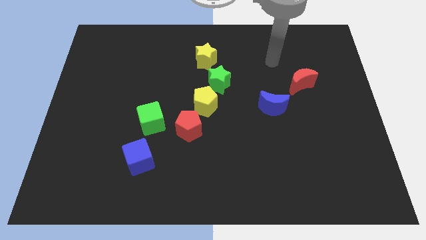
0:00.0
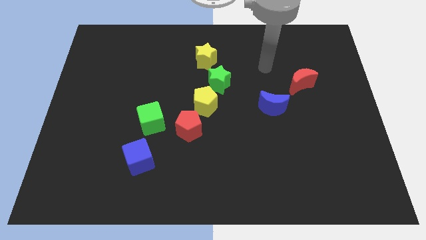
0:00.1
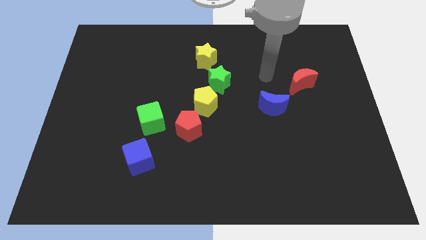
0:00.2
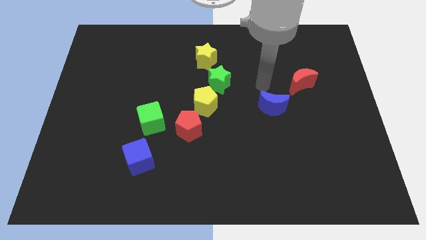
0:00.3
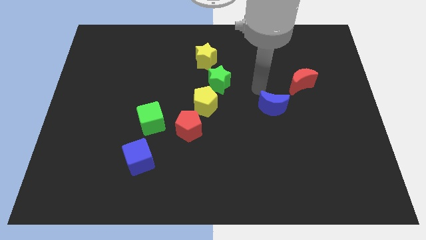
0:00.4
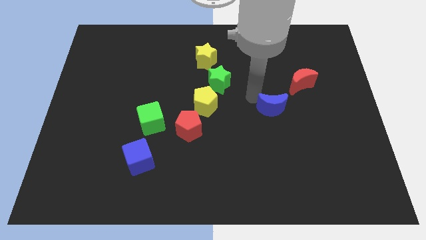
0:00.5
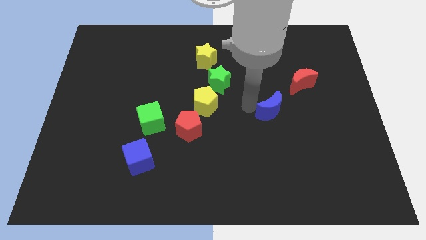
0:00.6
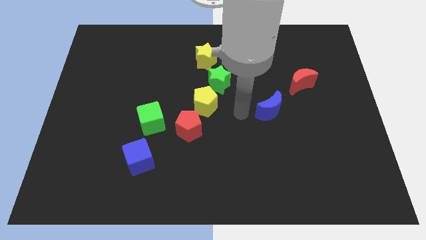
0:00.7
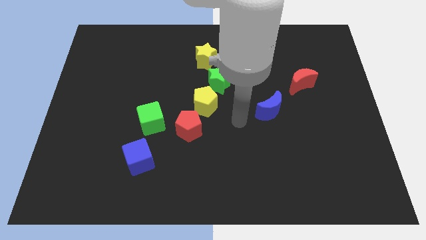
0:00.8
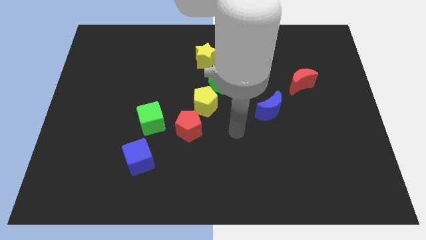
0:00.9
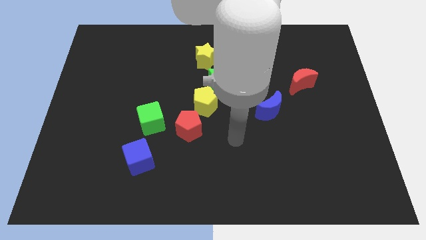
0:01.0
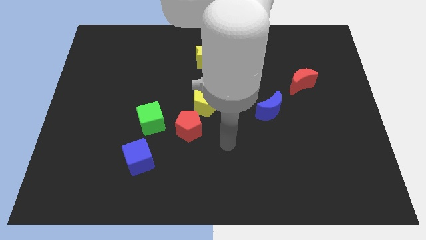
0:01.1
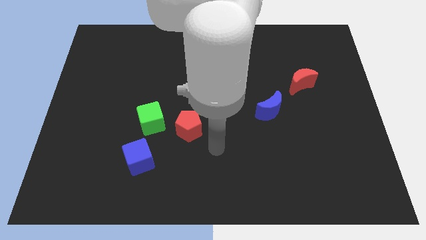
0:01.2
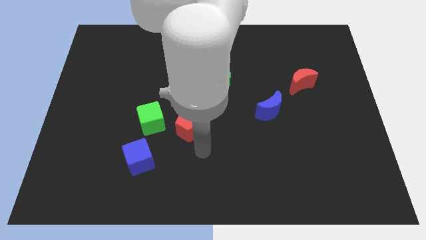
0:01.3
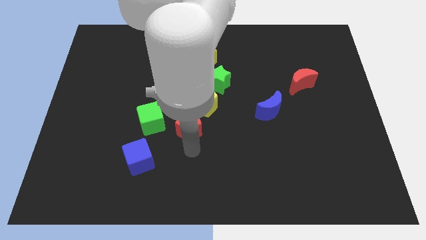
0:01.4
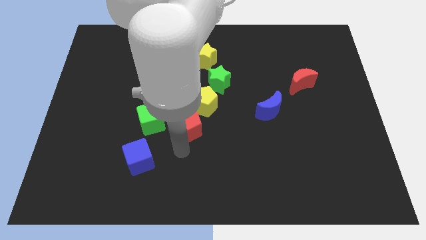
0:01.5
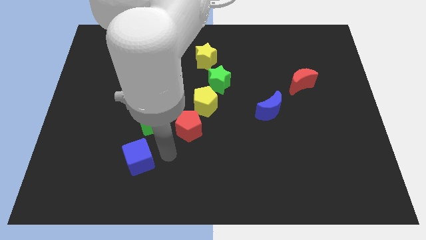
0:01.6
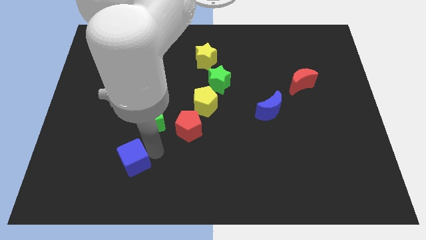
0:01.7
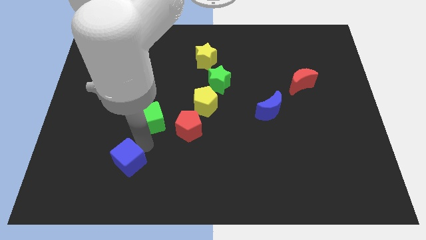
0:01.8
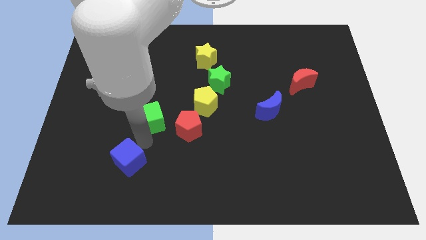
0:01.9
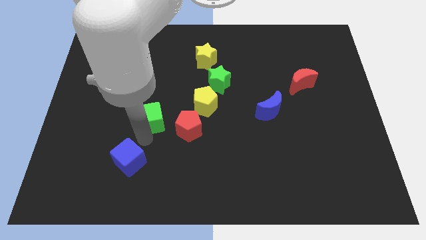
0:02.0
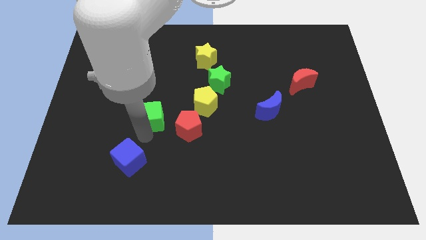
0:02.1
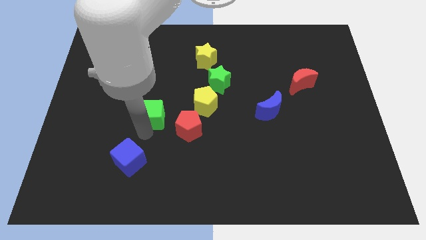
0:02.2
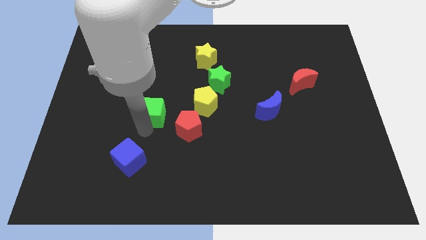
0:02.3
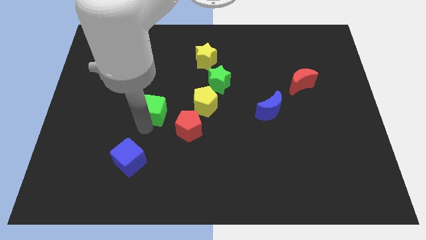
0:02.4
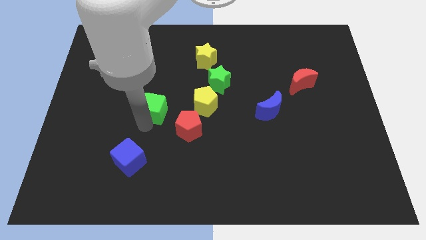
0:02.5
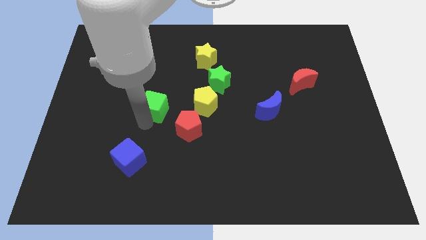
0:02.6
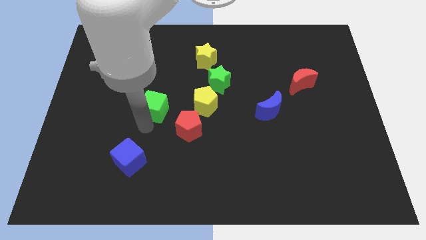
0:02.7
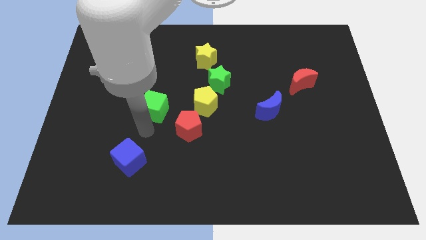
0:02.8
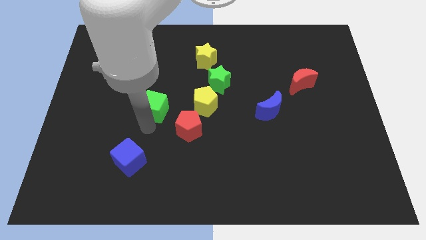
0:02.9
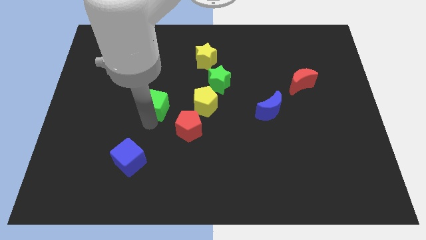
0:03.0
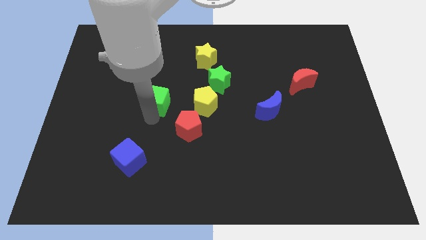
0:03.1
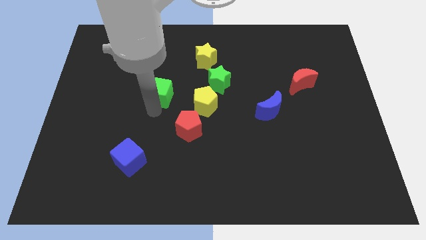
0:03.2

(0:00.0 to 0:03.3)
push the green cube upwards a little

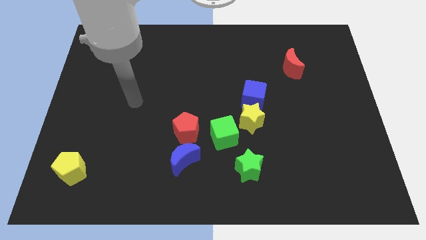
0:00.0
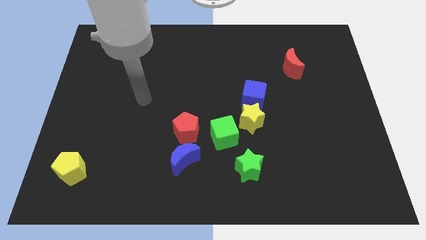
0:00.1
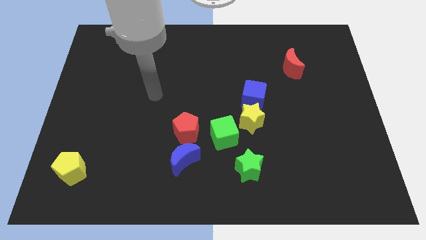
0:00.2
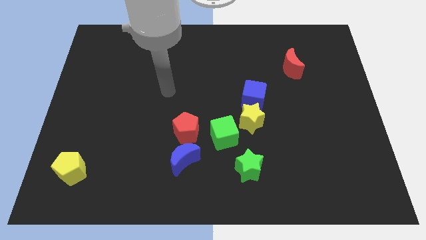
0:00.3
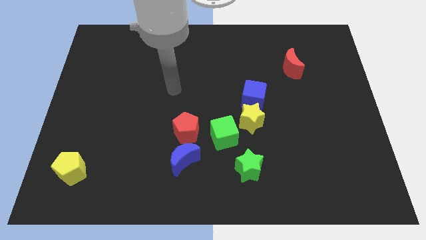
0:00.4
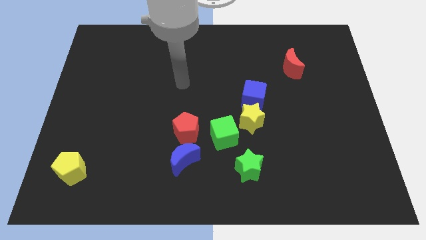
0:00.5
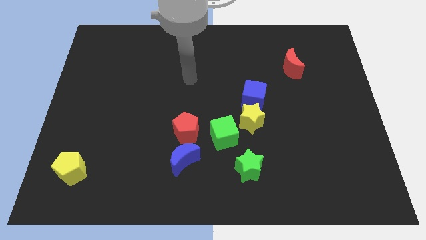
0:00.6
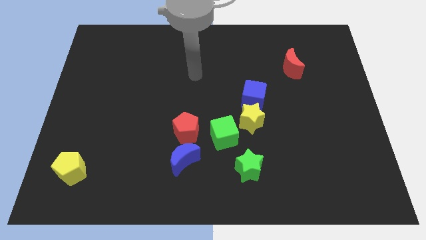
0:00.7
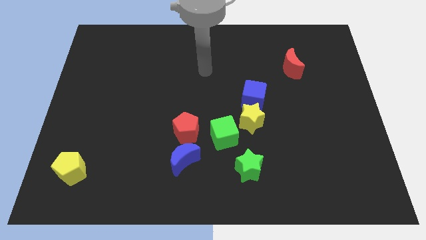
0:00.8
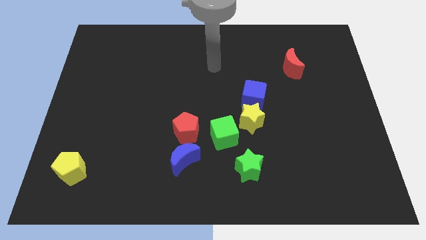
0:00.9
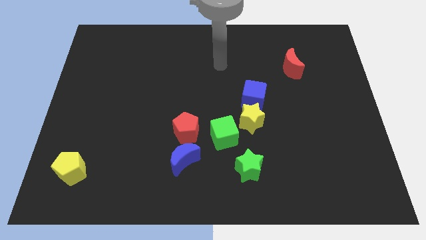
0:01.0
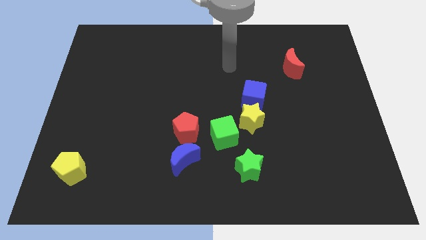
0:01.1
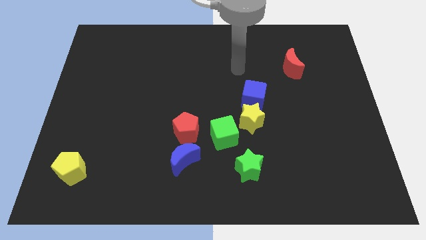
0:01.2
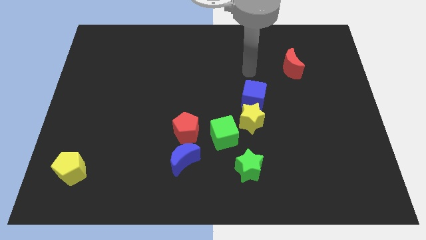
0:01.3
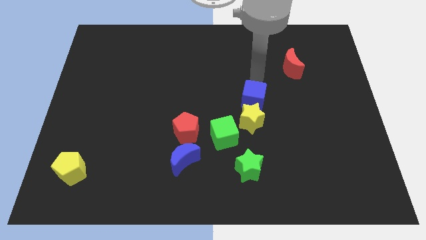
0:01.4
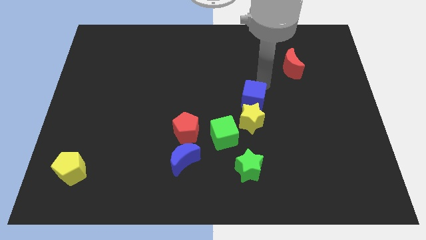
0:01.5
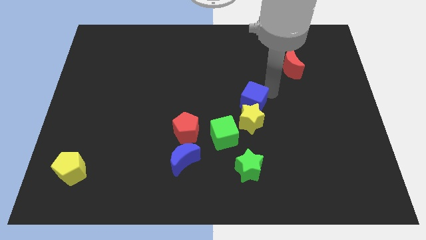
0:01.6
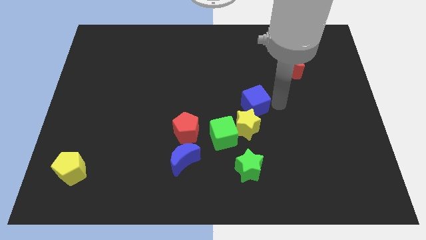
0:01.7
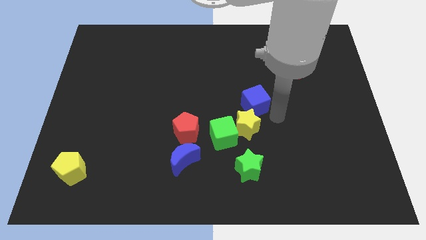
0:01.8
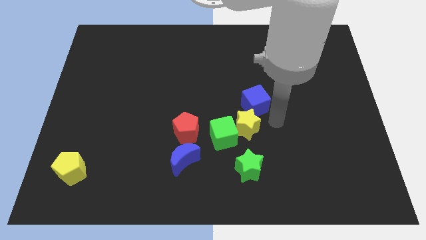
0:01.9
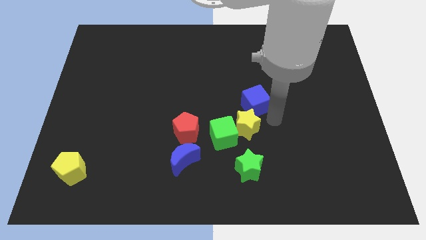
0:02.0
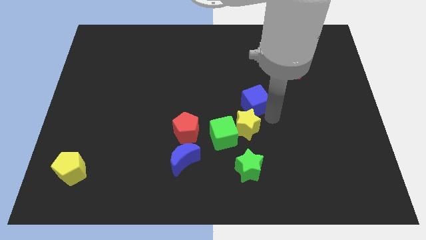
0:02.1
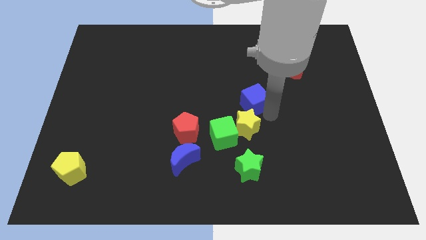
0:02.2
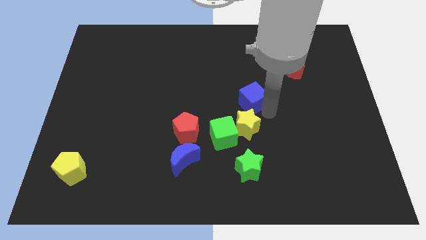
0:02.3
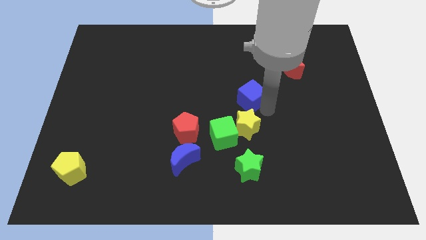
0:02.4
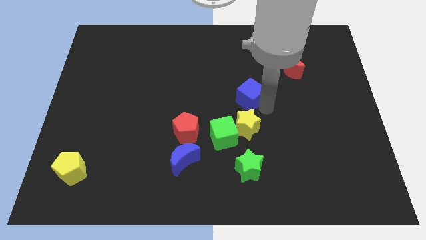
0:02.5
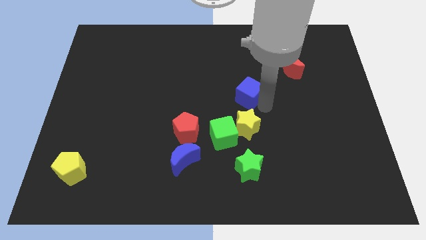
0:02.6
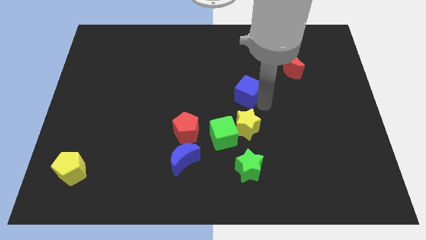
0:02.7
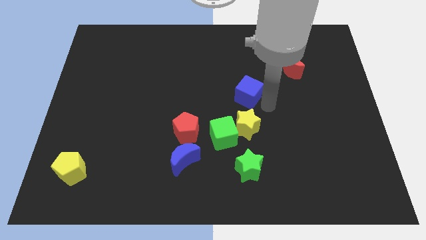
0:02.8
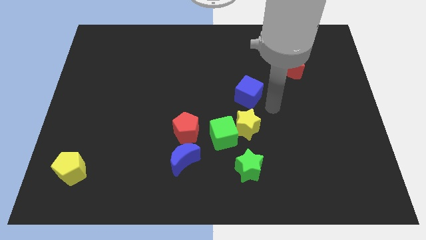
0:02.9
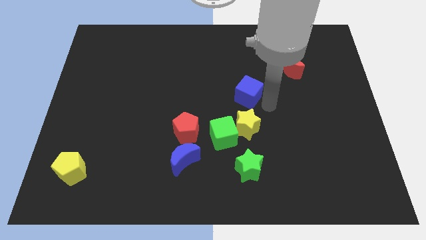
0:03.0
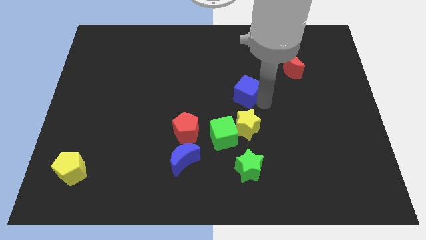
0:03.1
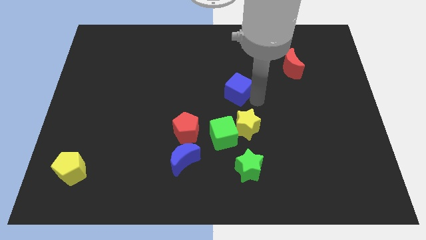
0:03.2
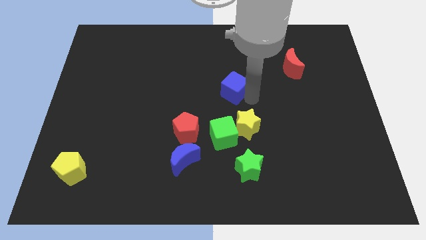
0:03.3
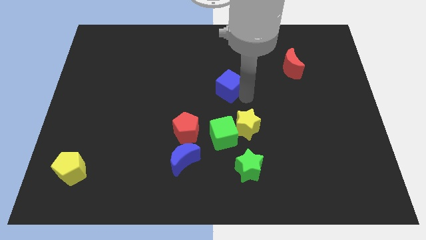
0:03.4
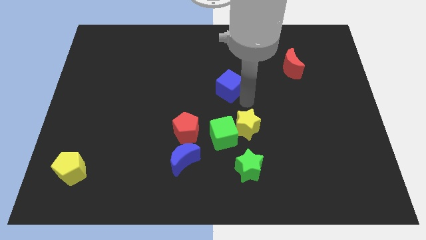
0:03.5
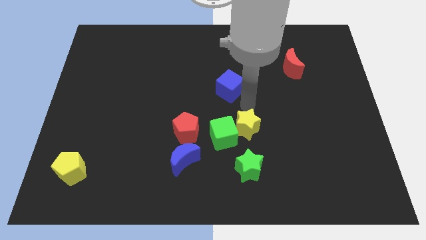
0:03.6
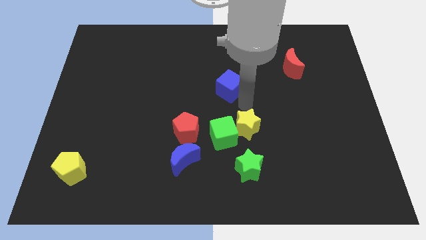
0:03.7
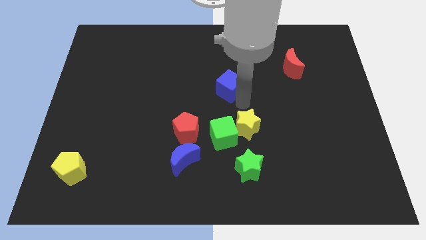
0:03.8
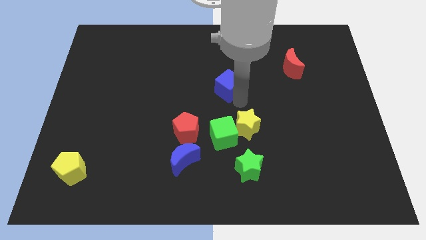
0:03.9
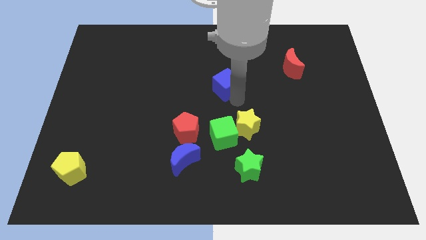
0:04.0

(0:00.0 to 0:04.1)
slide the blue cube slightly upwards and then to the left

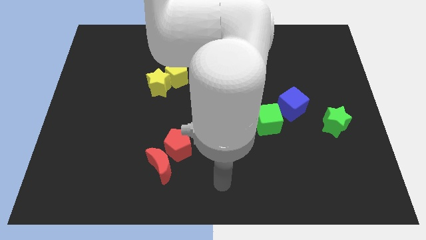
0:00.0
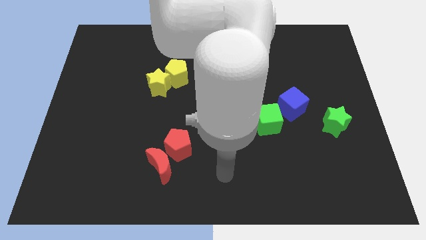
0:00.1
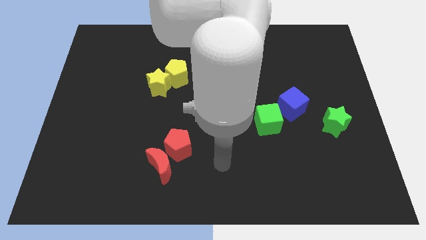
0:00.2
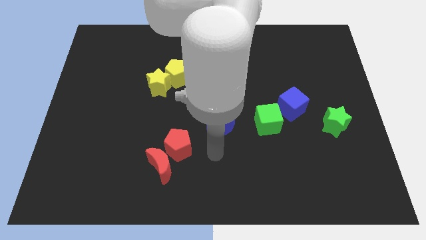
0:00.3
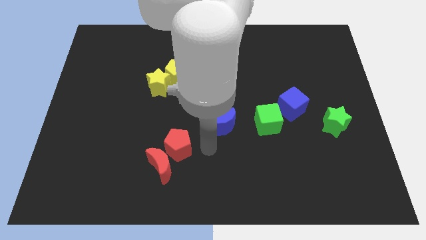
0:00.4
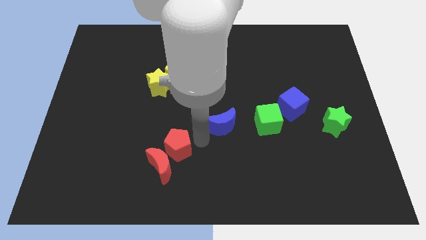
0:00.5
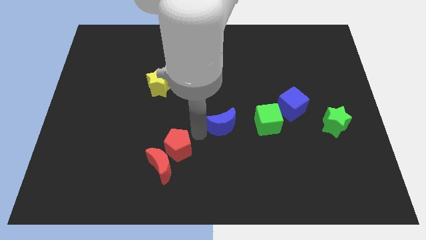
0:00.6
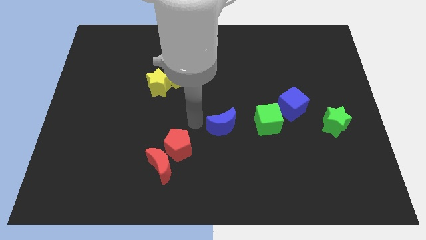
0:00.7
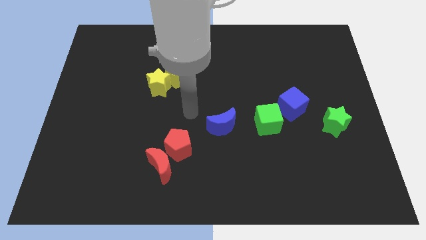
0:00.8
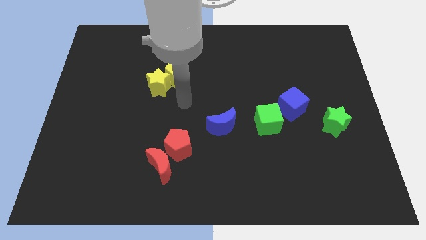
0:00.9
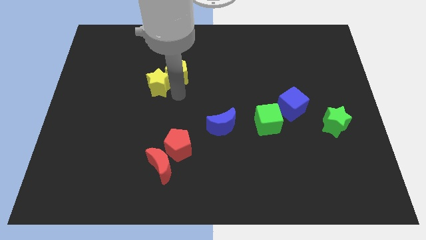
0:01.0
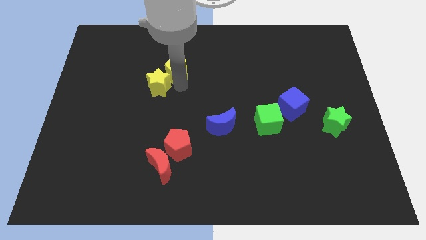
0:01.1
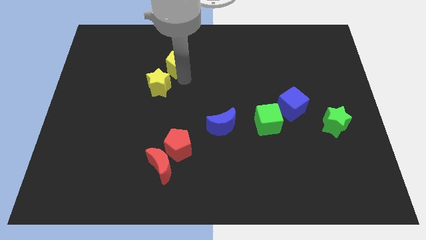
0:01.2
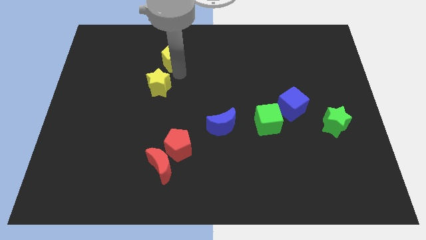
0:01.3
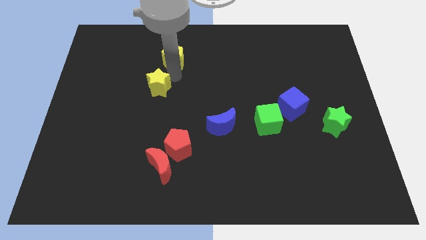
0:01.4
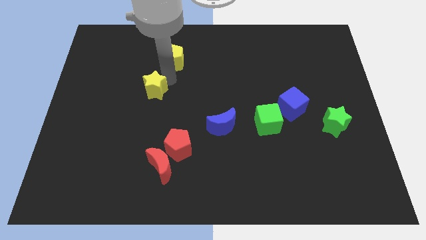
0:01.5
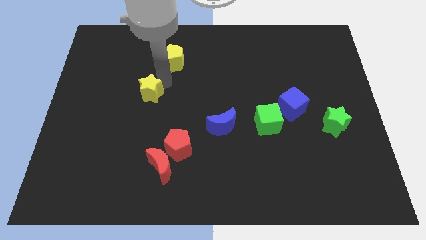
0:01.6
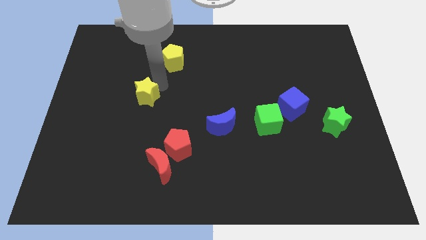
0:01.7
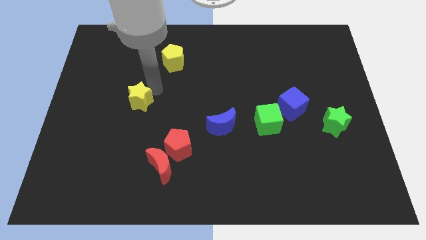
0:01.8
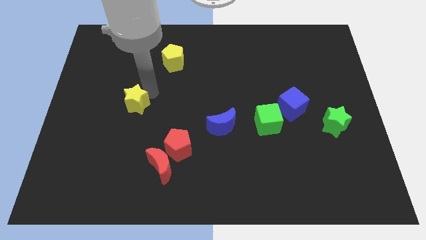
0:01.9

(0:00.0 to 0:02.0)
slightly push the yellow star diagonally down and left
